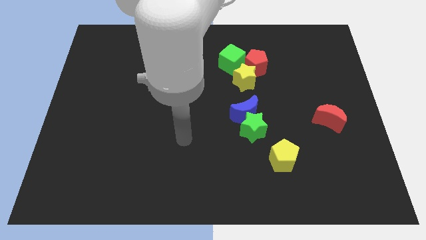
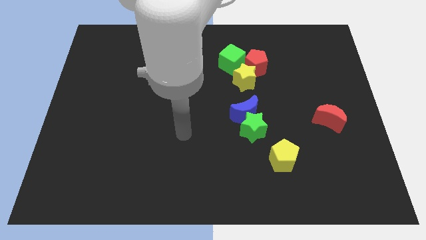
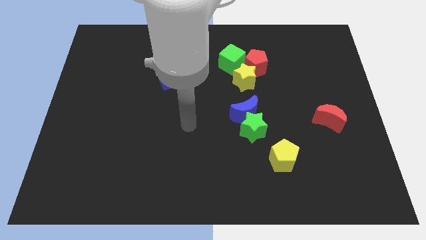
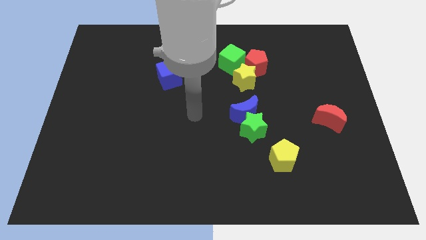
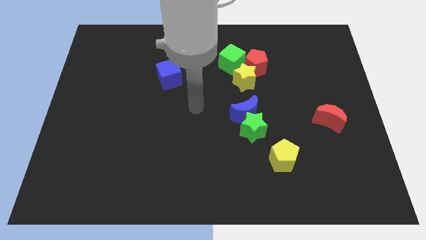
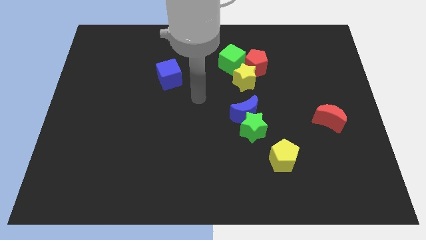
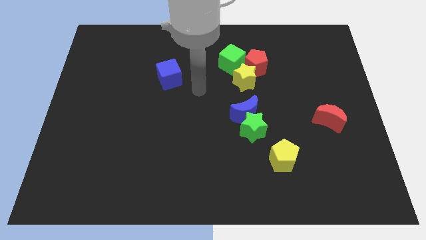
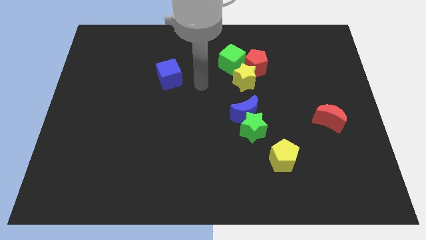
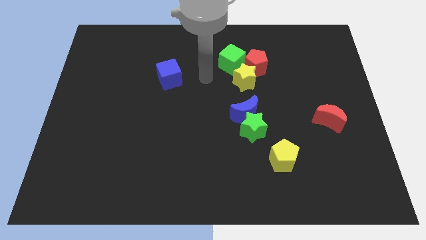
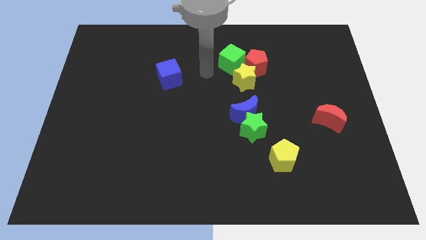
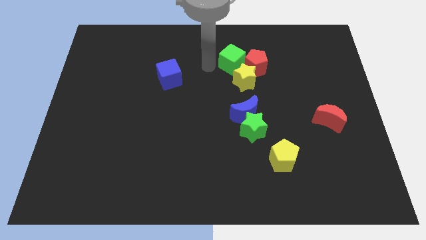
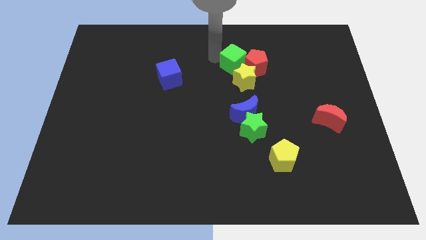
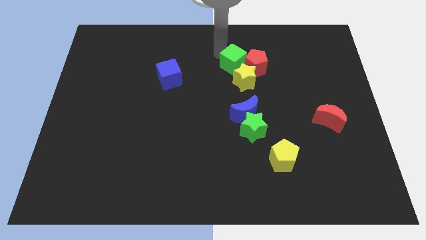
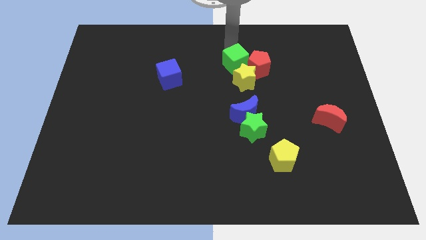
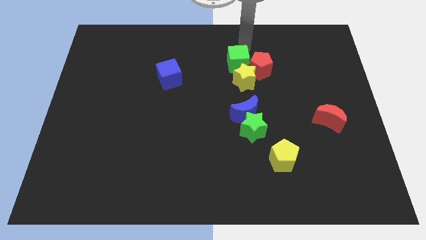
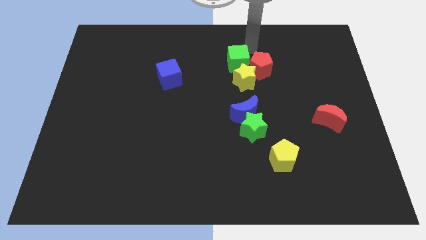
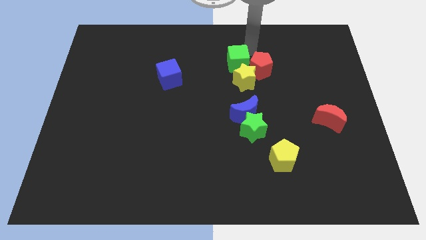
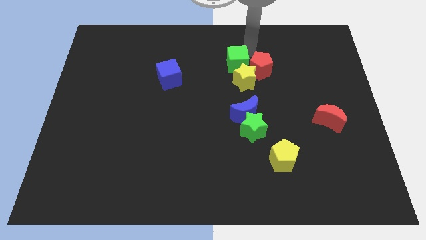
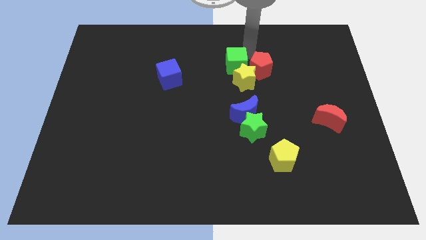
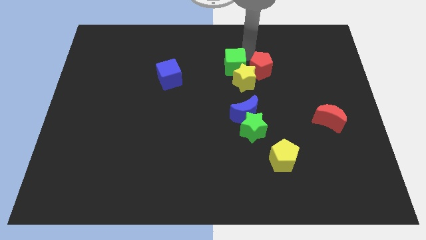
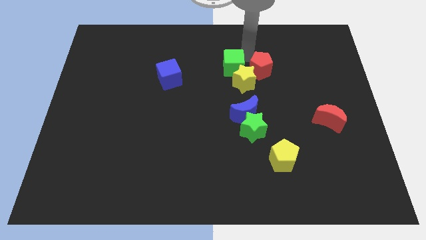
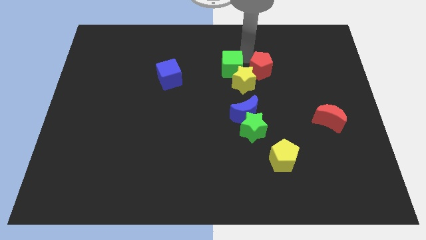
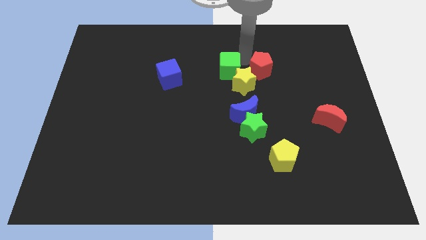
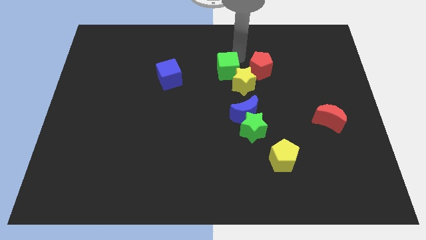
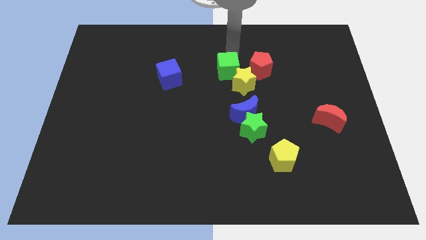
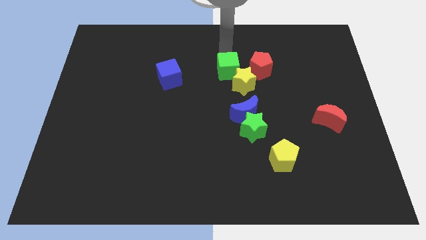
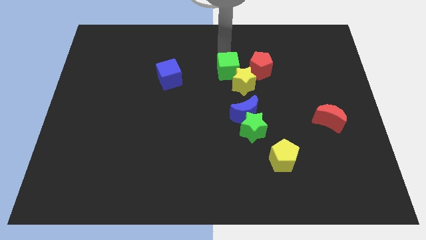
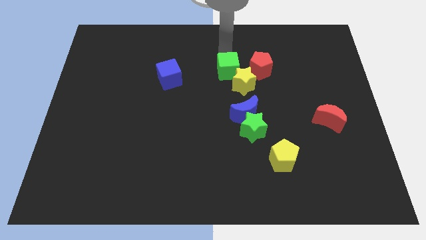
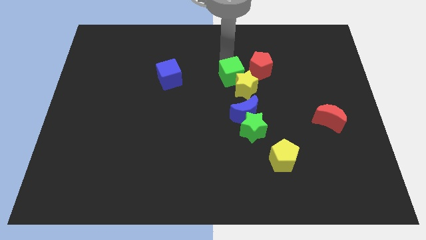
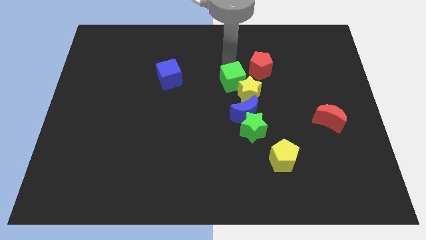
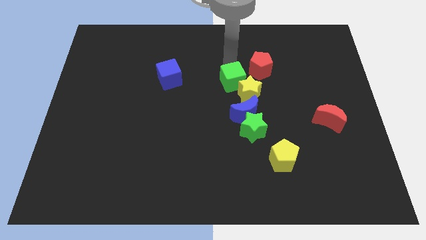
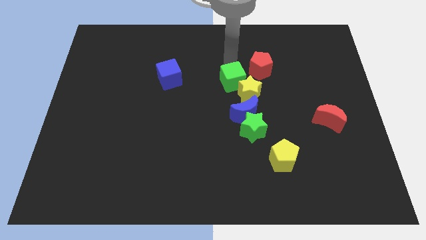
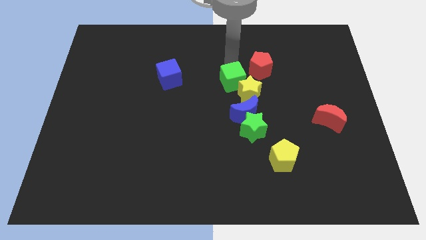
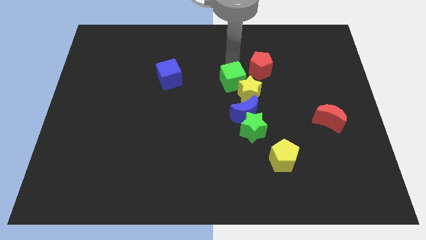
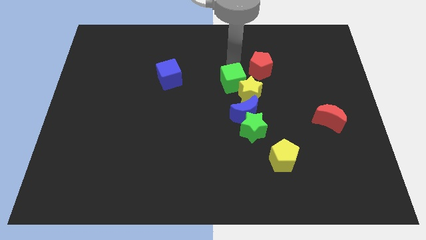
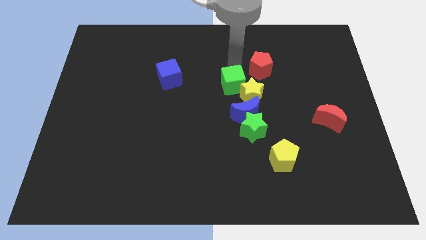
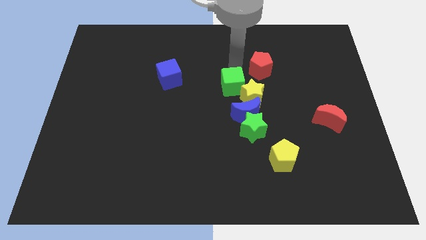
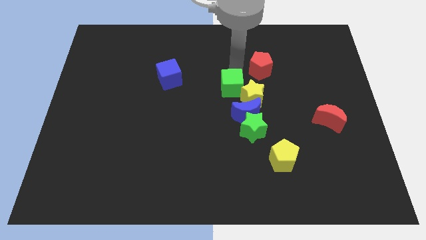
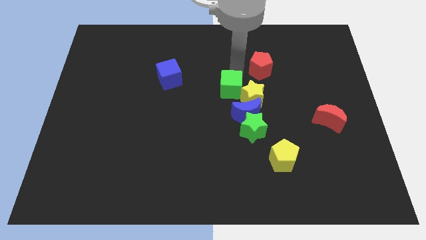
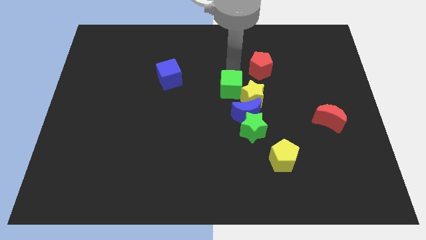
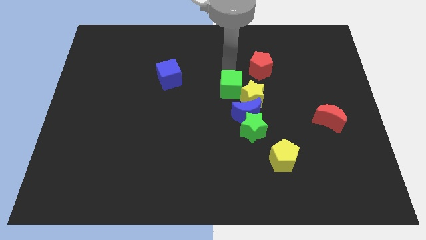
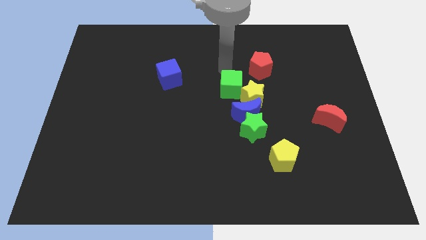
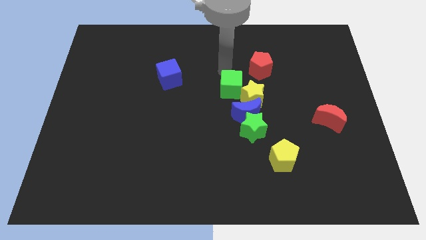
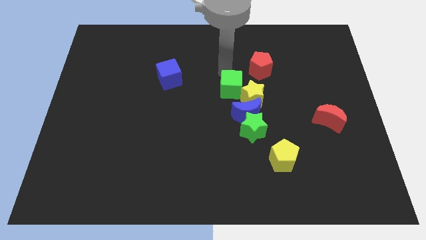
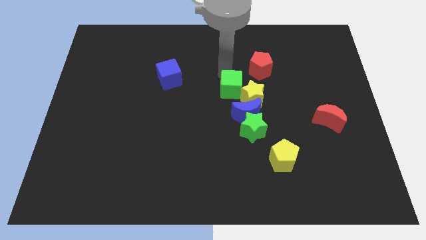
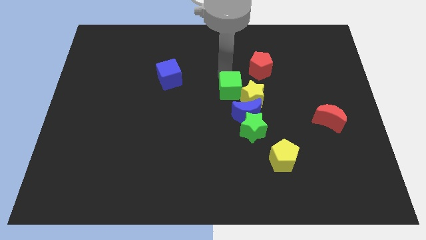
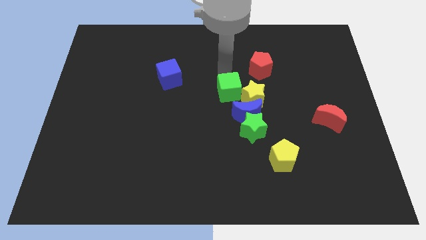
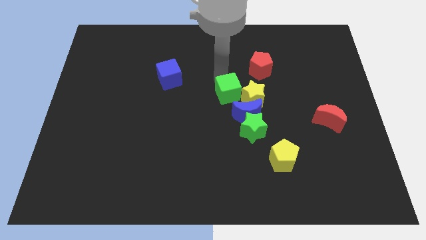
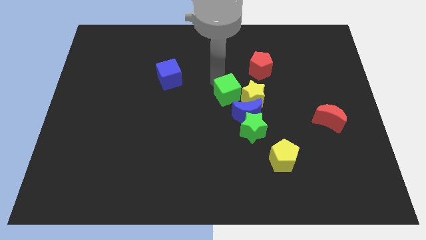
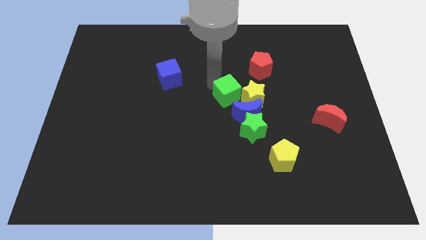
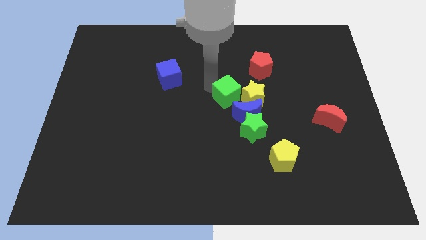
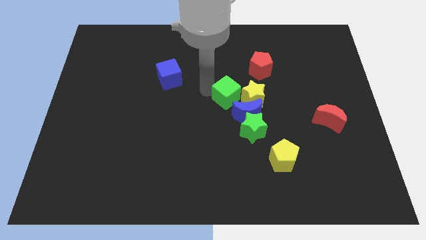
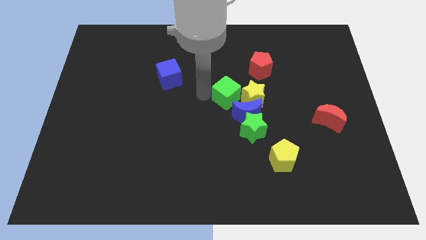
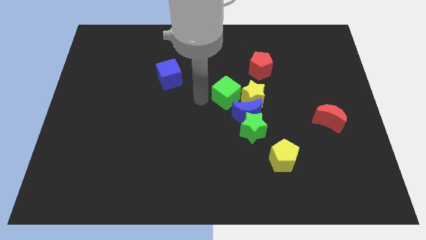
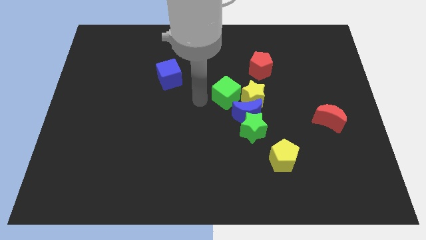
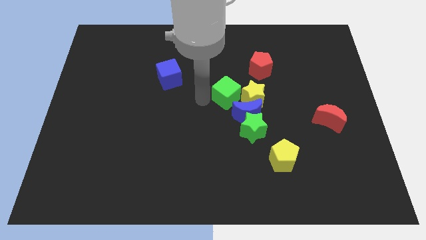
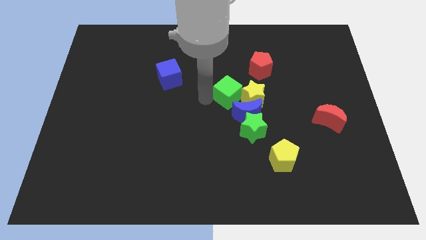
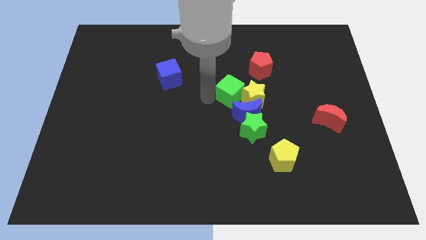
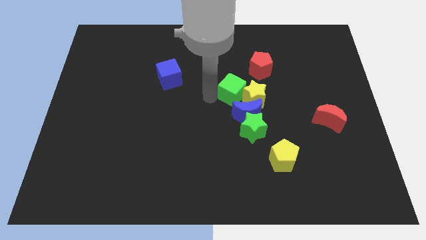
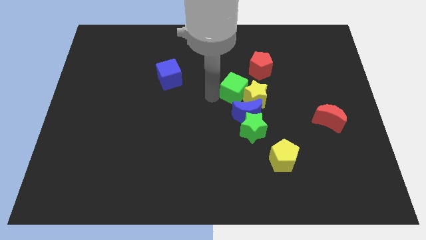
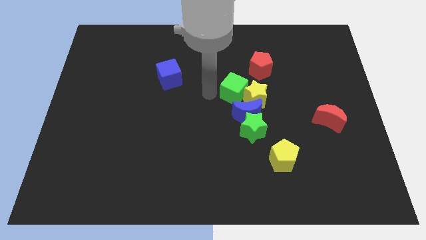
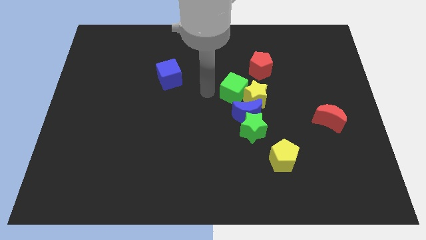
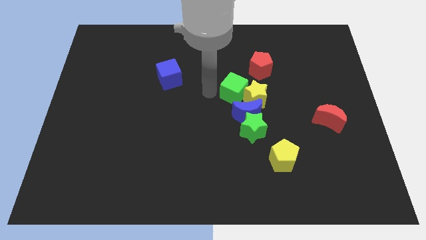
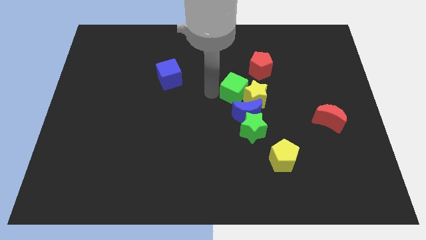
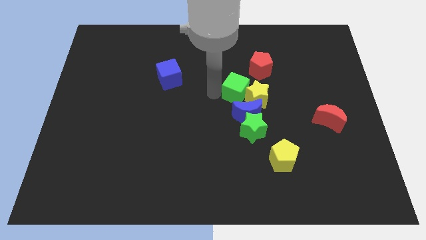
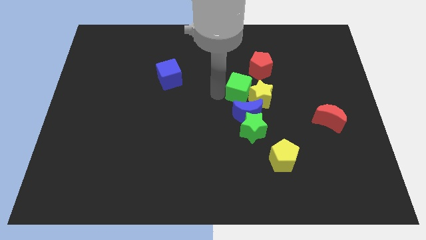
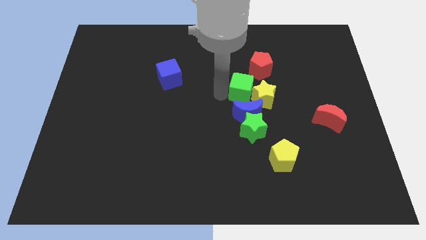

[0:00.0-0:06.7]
push the green cube a bit down and to the right

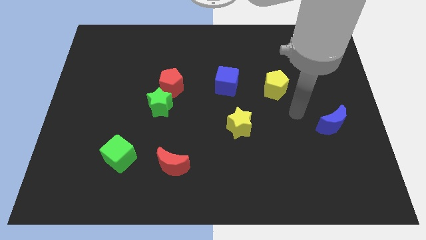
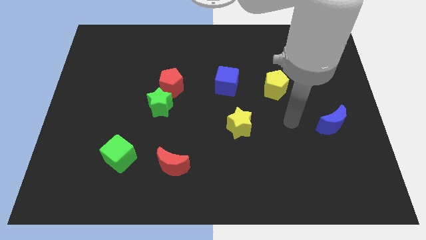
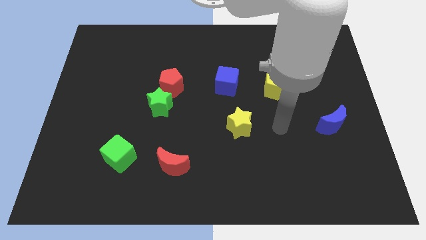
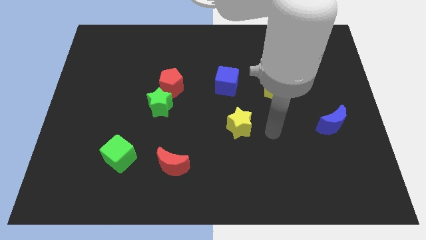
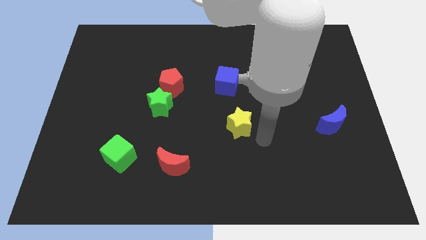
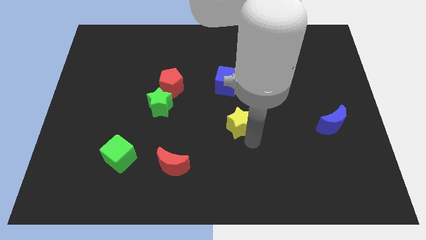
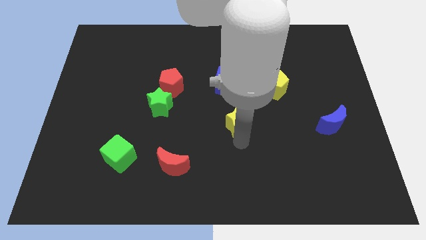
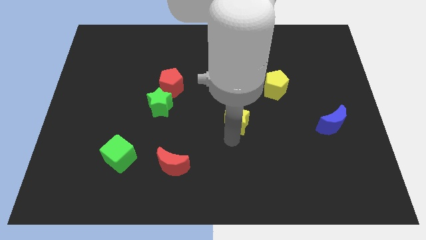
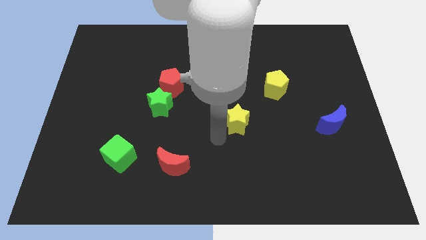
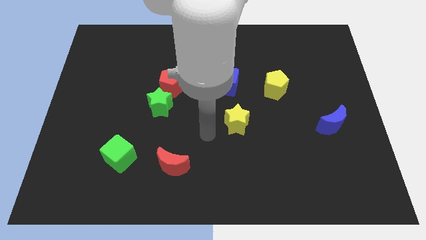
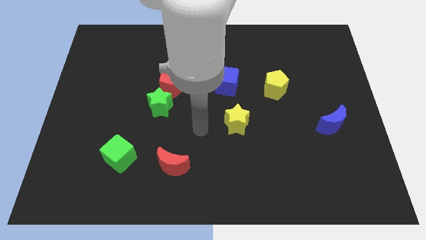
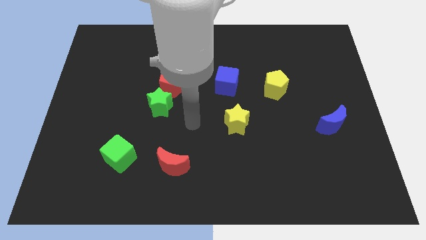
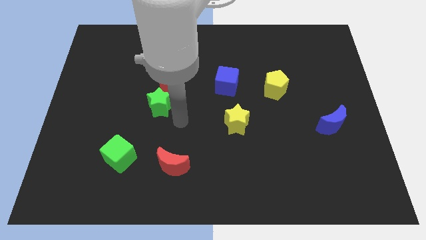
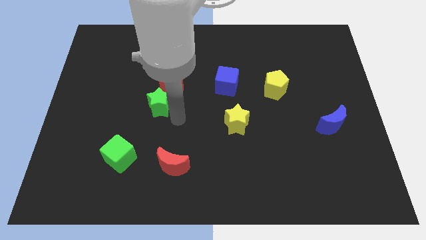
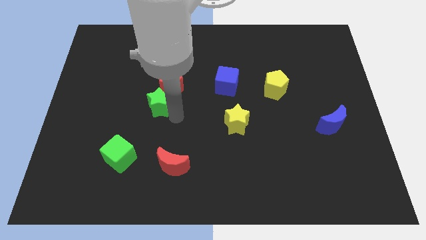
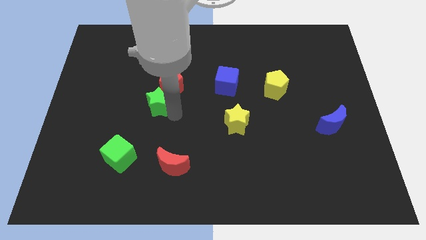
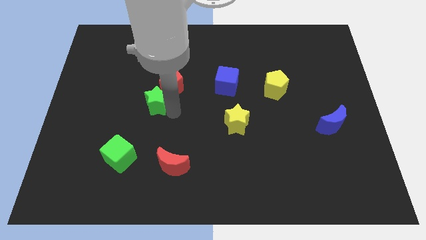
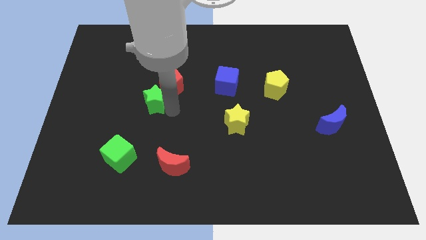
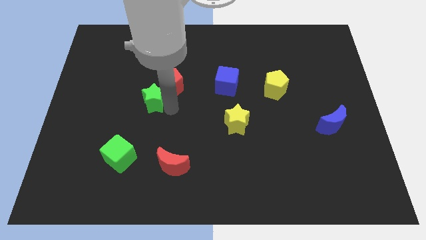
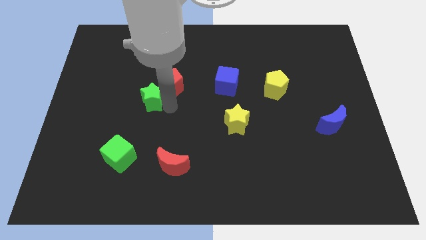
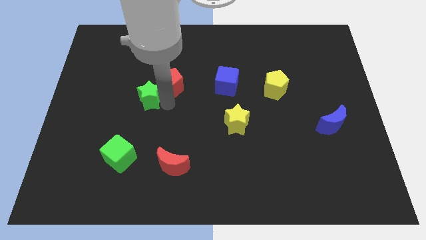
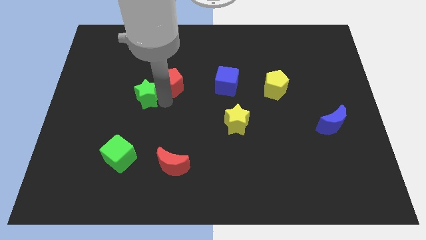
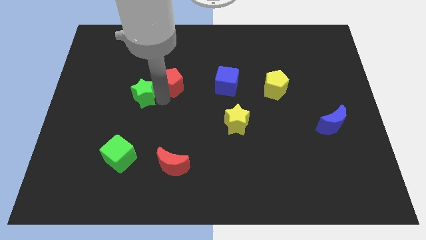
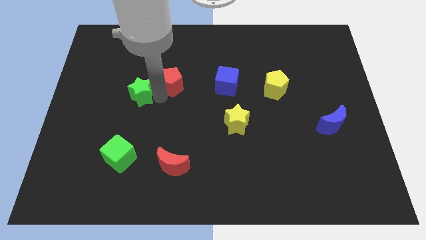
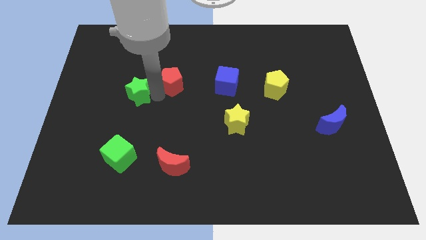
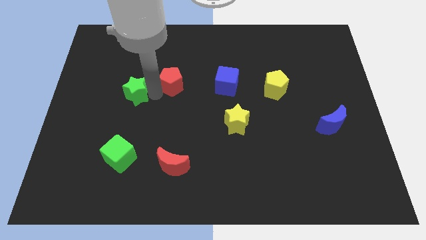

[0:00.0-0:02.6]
slide the green star diagonally up and left somewhat
